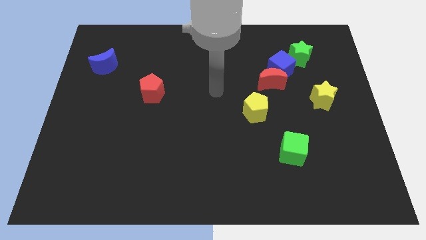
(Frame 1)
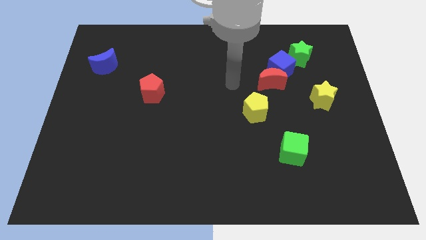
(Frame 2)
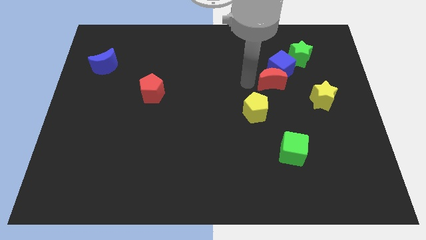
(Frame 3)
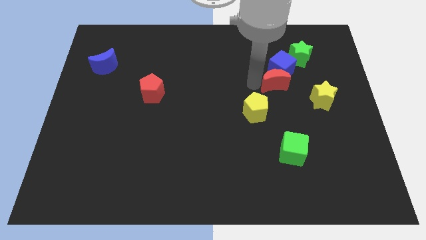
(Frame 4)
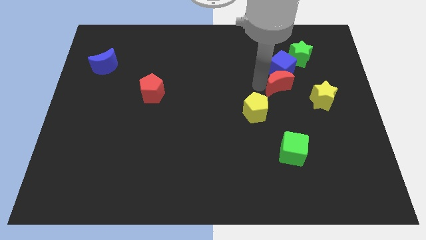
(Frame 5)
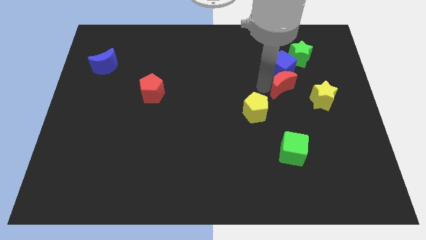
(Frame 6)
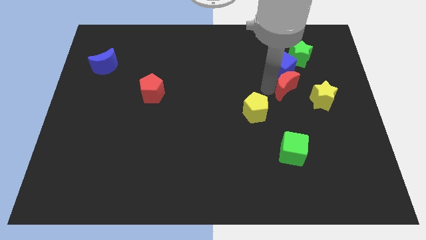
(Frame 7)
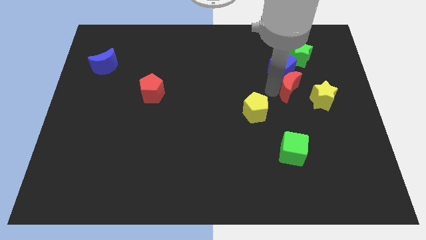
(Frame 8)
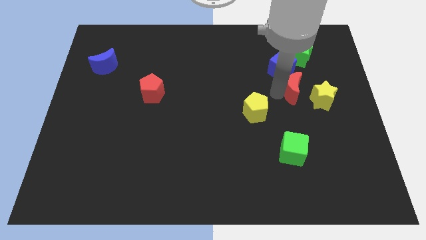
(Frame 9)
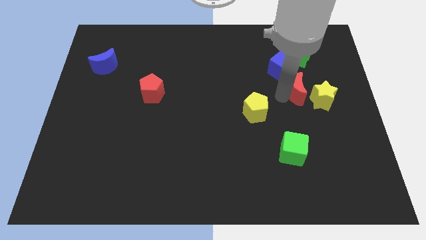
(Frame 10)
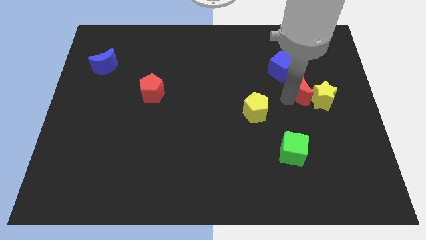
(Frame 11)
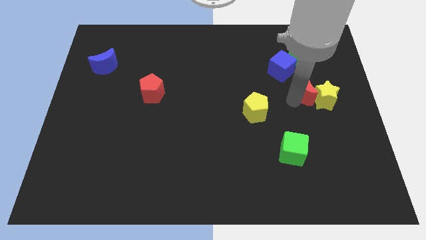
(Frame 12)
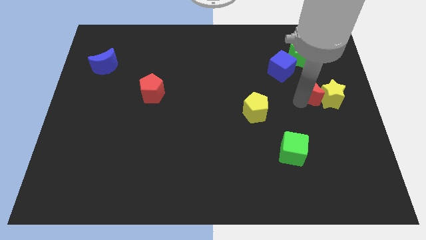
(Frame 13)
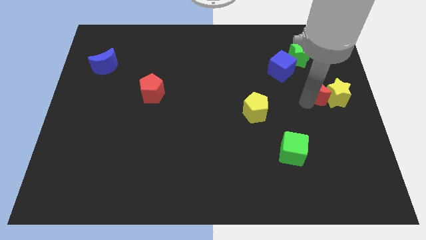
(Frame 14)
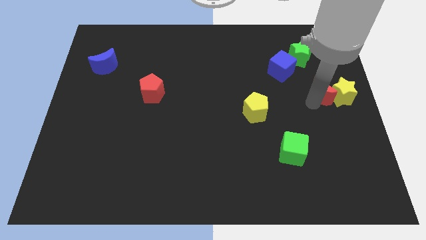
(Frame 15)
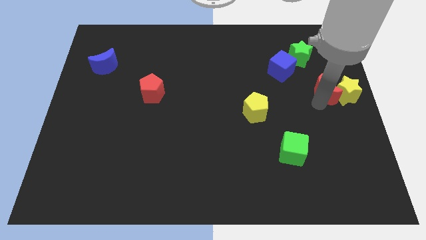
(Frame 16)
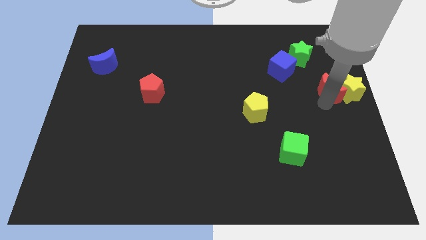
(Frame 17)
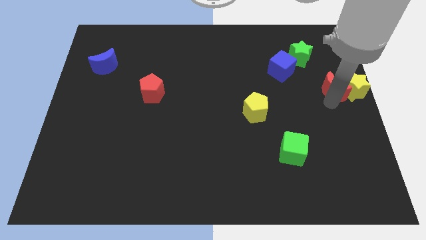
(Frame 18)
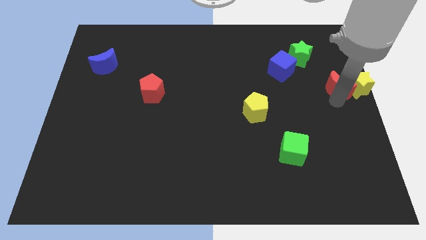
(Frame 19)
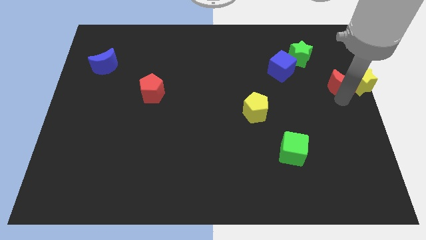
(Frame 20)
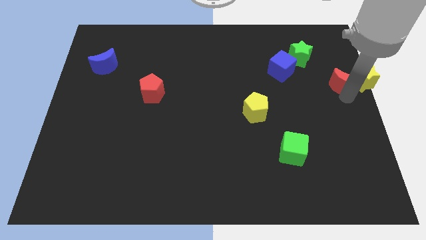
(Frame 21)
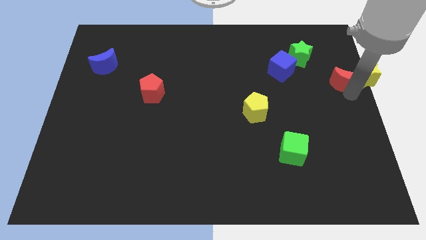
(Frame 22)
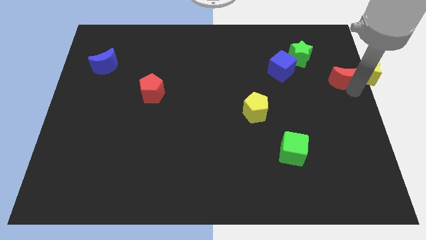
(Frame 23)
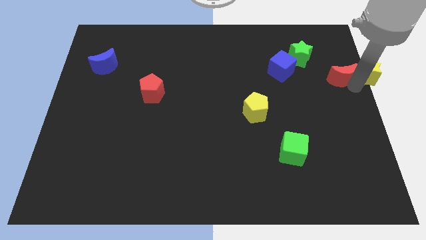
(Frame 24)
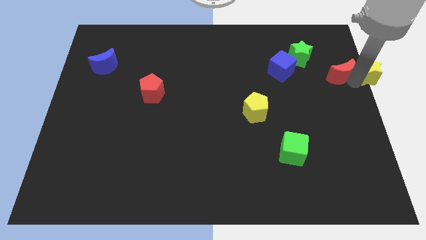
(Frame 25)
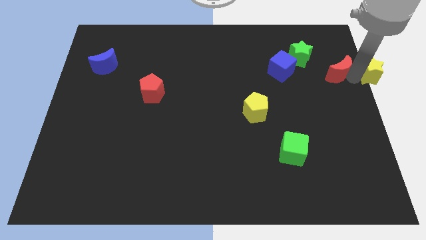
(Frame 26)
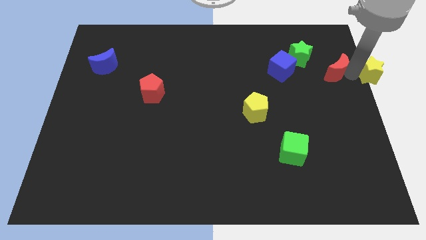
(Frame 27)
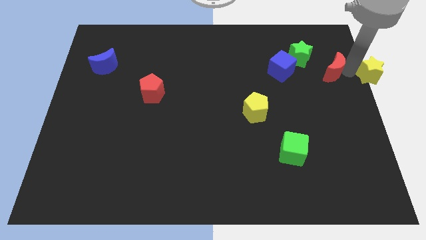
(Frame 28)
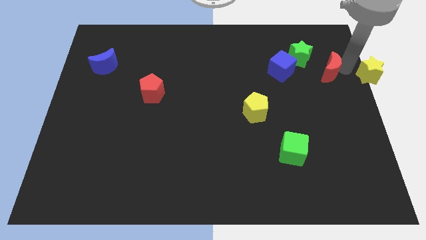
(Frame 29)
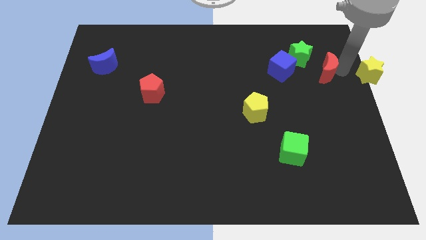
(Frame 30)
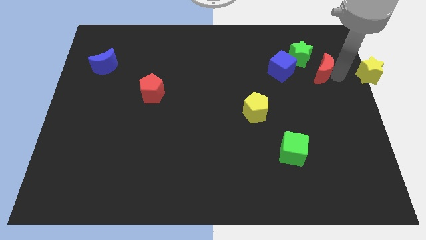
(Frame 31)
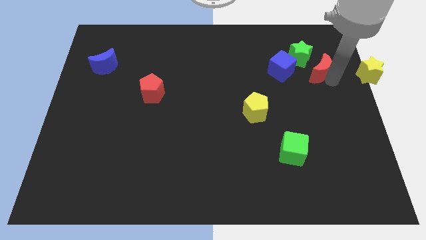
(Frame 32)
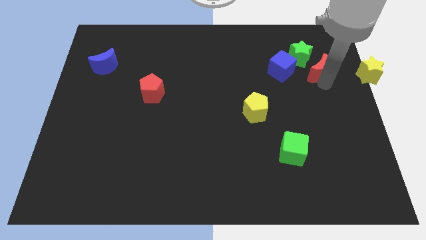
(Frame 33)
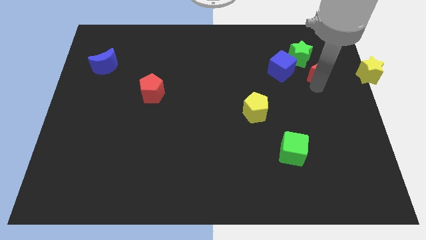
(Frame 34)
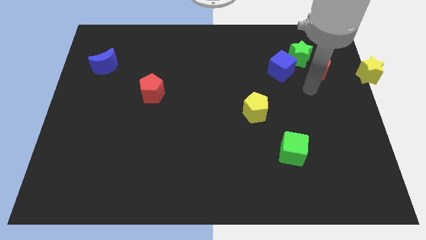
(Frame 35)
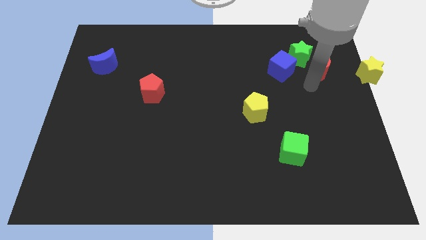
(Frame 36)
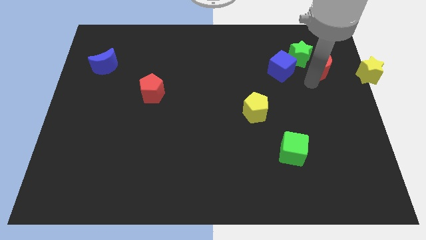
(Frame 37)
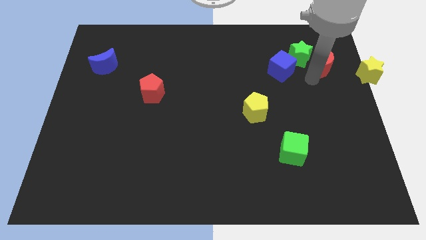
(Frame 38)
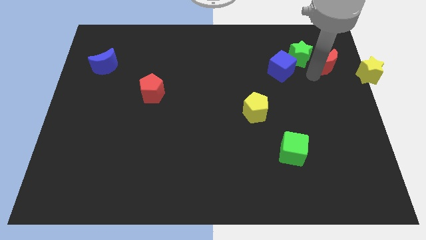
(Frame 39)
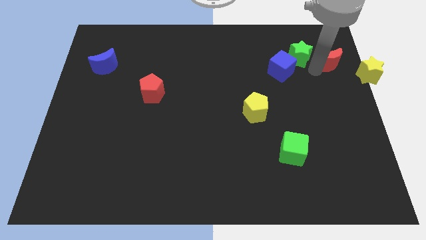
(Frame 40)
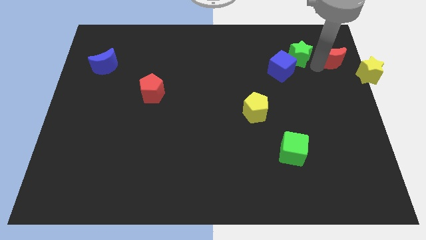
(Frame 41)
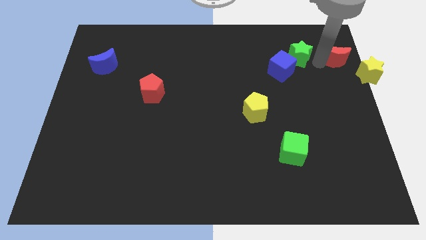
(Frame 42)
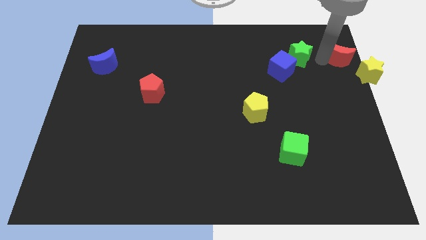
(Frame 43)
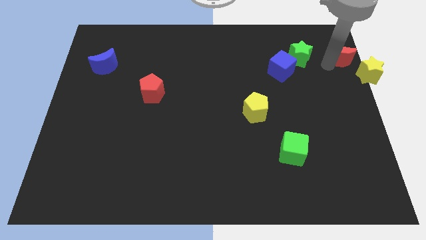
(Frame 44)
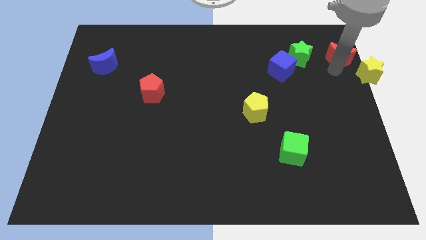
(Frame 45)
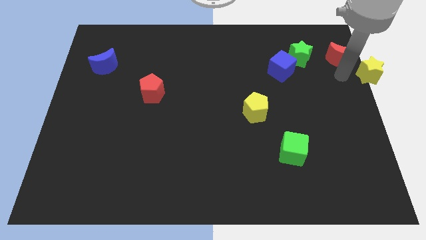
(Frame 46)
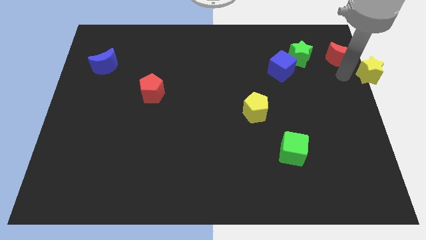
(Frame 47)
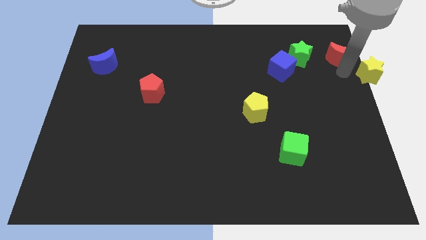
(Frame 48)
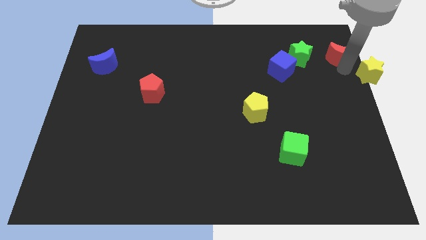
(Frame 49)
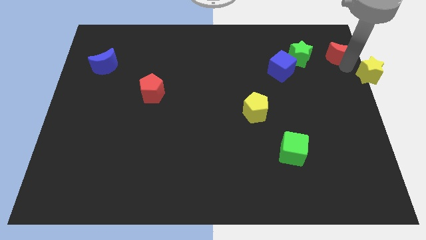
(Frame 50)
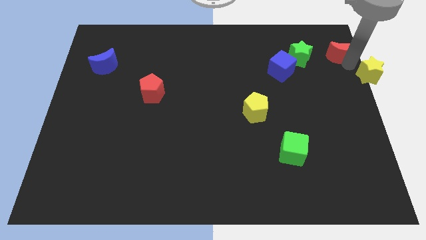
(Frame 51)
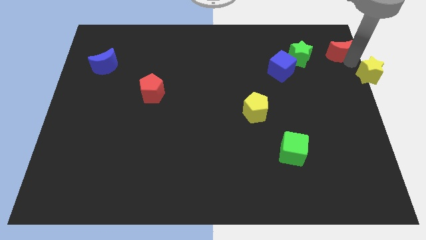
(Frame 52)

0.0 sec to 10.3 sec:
move the red moon to the top right

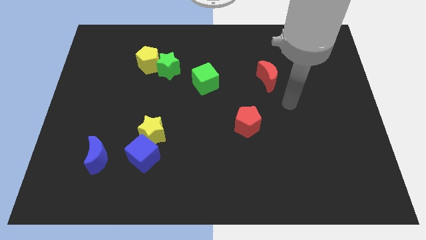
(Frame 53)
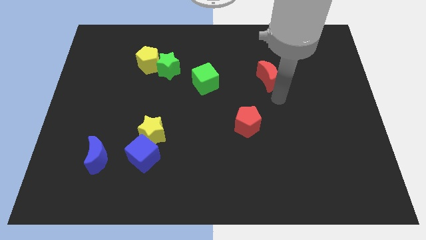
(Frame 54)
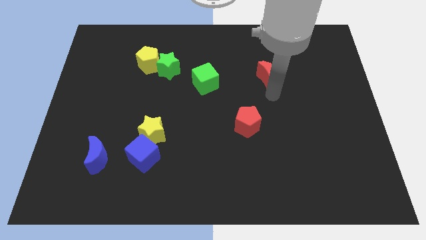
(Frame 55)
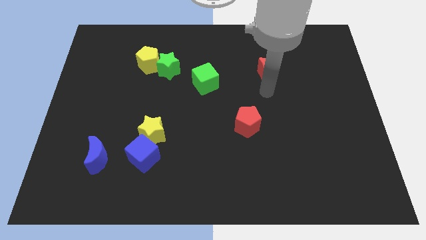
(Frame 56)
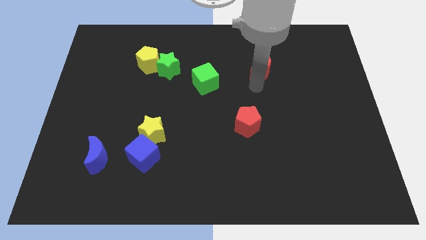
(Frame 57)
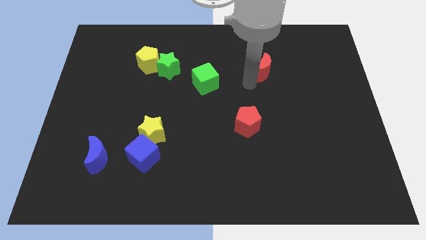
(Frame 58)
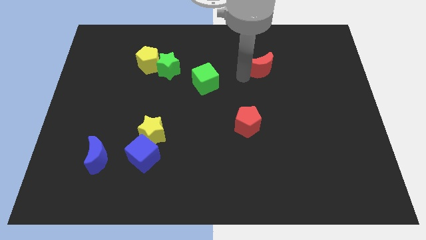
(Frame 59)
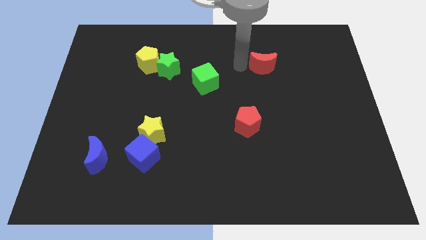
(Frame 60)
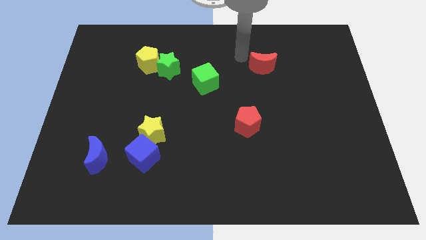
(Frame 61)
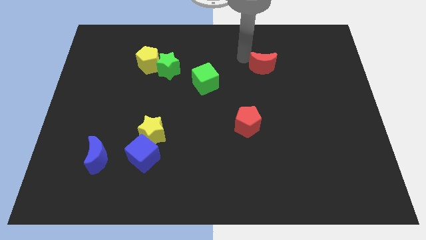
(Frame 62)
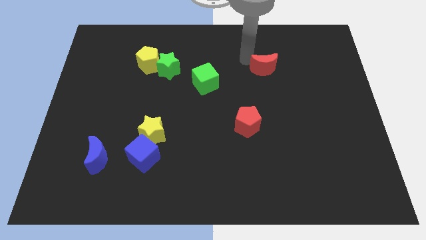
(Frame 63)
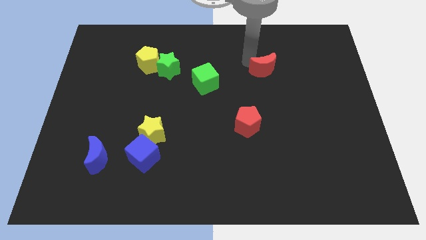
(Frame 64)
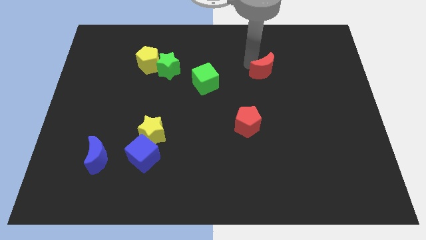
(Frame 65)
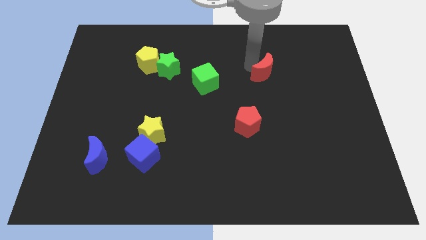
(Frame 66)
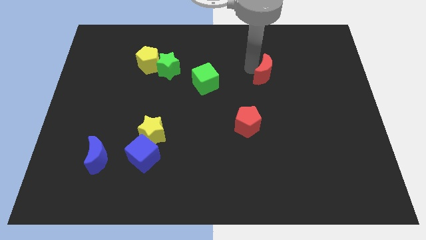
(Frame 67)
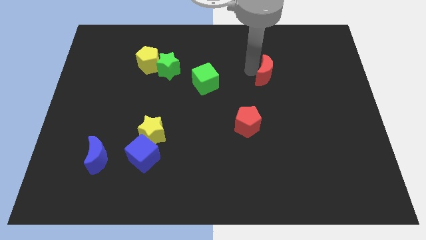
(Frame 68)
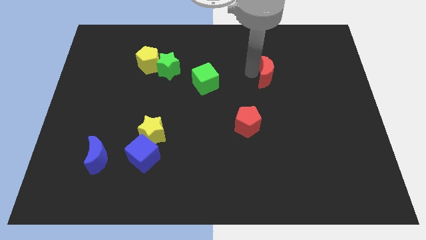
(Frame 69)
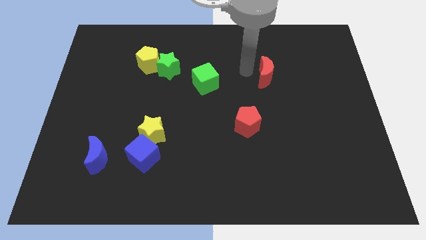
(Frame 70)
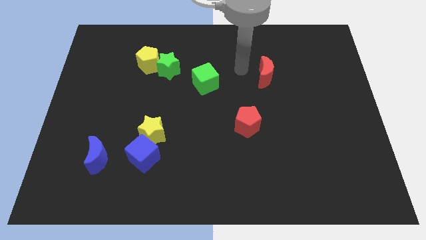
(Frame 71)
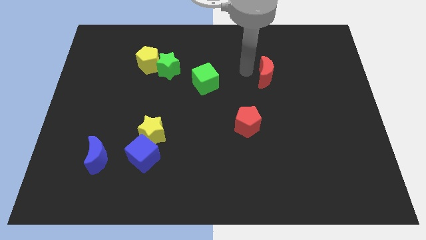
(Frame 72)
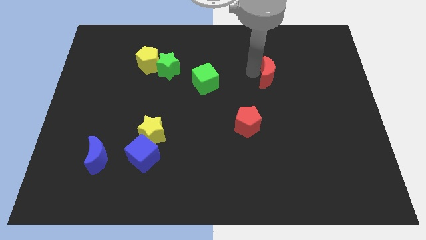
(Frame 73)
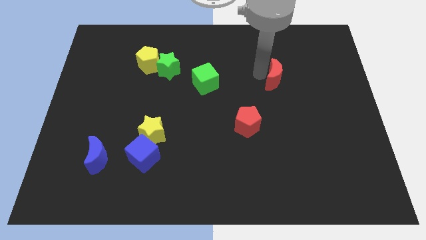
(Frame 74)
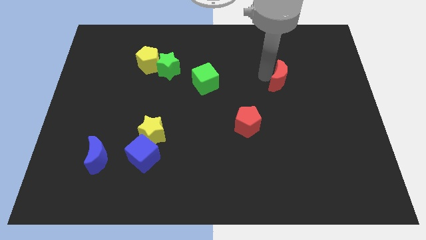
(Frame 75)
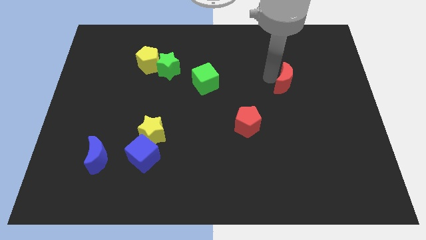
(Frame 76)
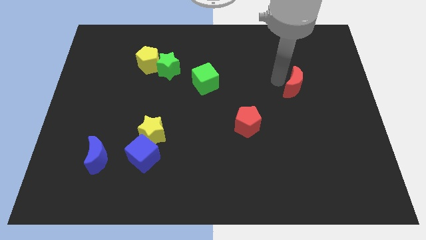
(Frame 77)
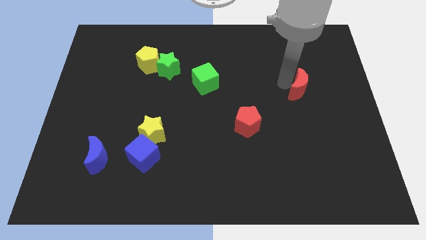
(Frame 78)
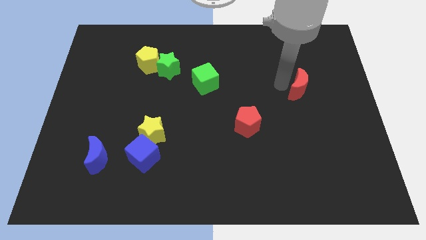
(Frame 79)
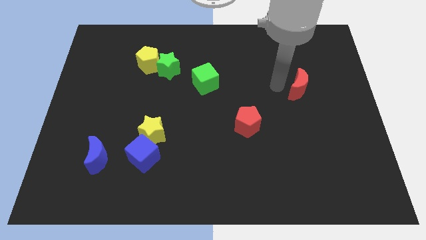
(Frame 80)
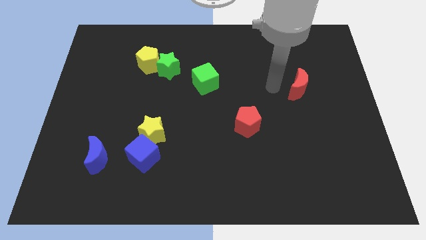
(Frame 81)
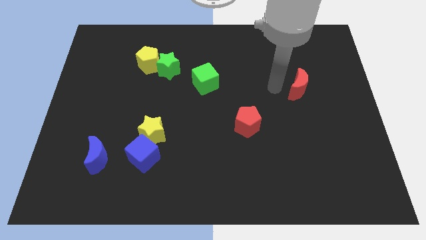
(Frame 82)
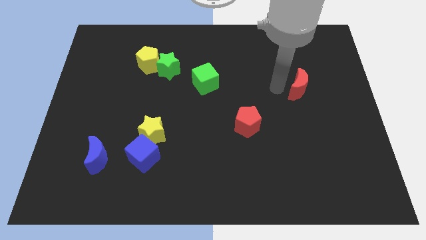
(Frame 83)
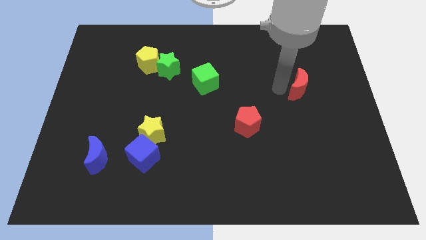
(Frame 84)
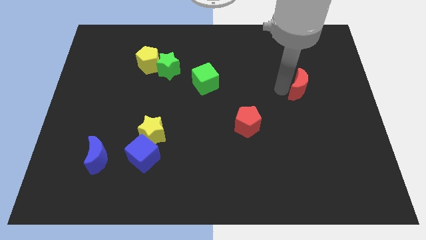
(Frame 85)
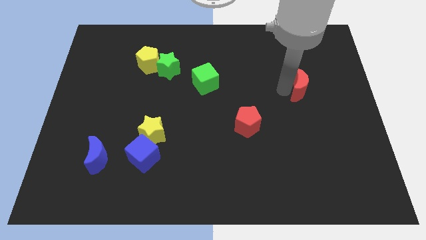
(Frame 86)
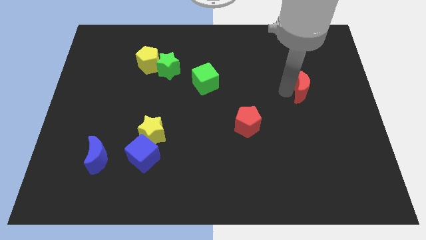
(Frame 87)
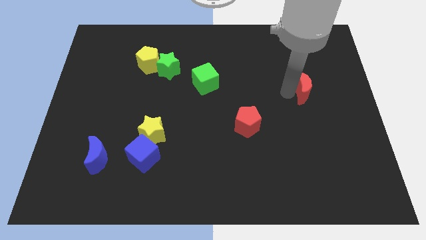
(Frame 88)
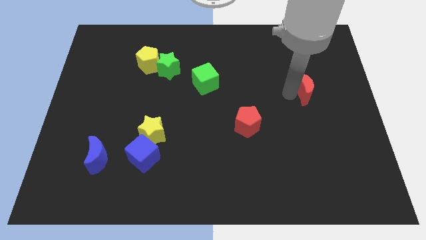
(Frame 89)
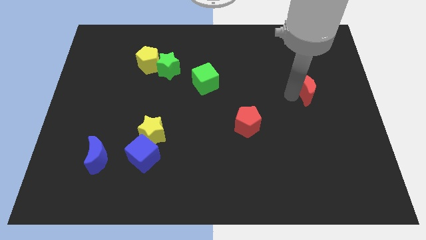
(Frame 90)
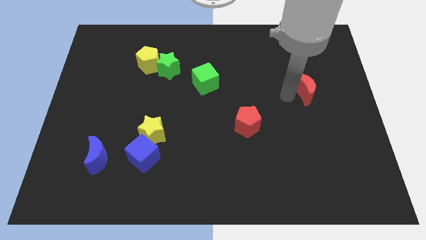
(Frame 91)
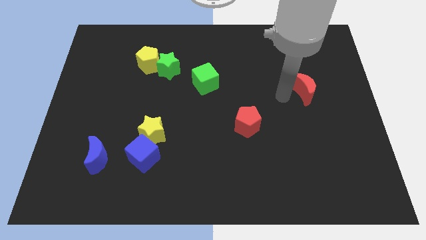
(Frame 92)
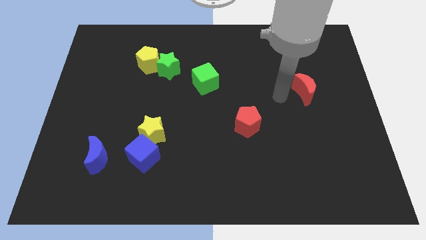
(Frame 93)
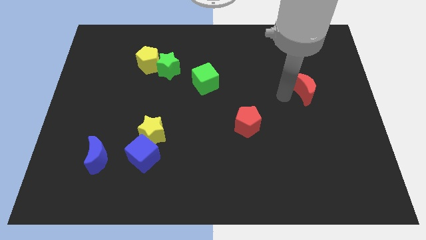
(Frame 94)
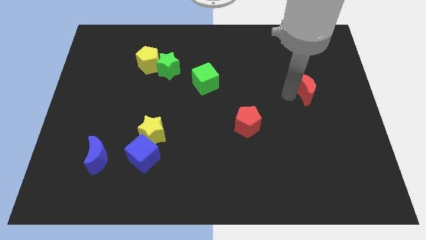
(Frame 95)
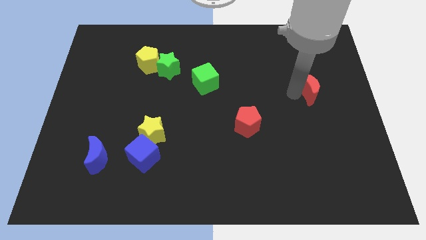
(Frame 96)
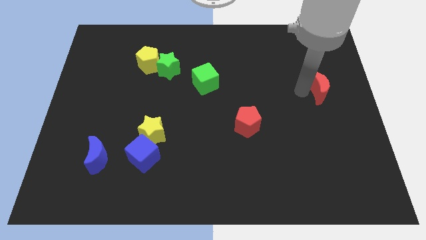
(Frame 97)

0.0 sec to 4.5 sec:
move the red moon to the right side
